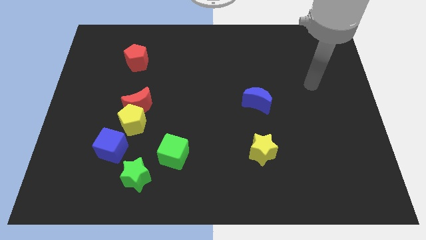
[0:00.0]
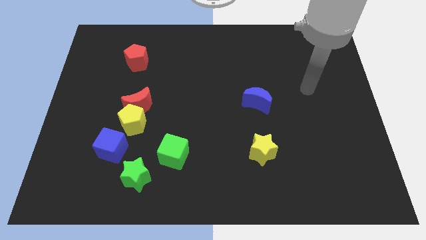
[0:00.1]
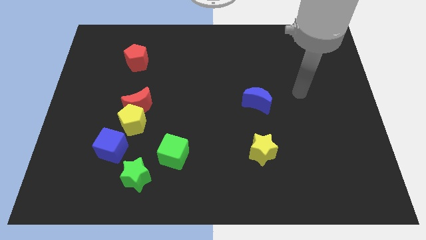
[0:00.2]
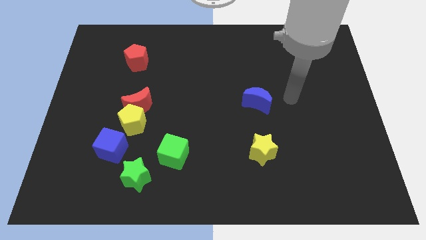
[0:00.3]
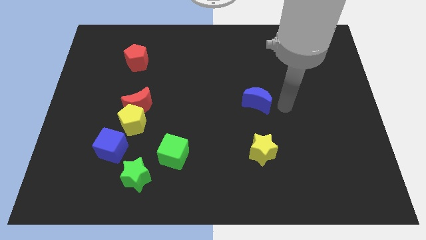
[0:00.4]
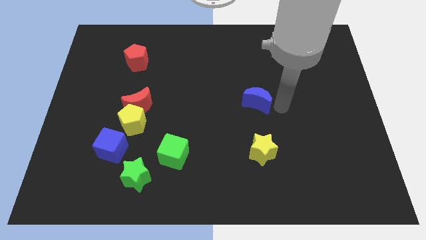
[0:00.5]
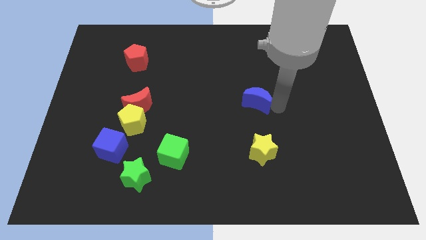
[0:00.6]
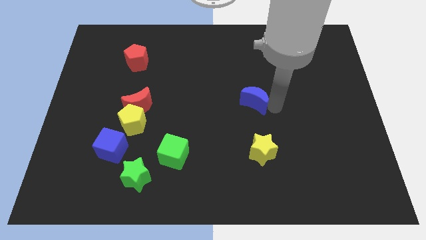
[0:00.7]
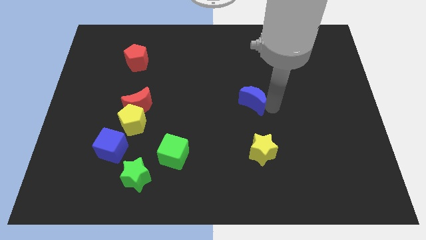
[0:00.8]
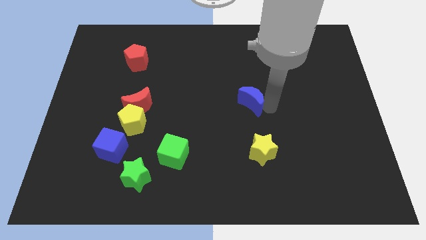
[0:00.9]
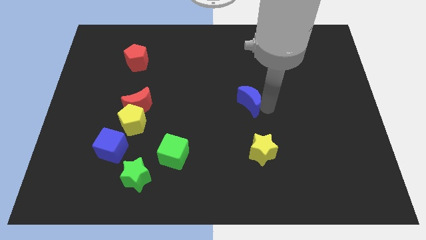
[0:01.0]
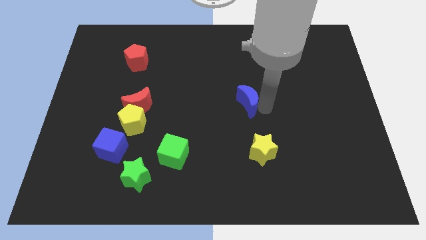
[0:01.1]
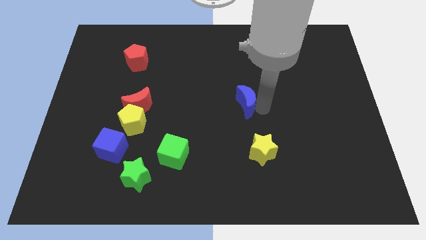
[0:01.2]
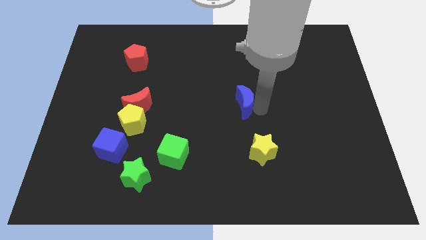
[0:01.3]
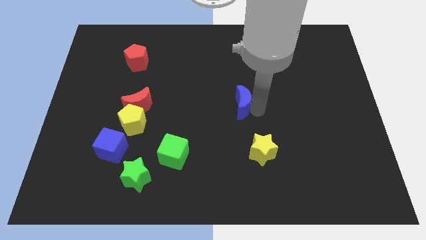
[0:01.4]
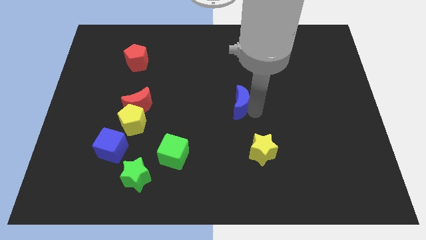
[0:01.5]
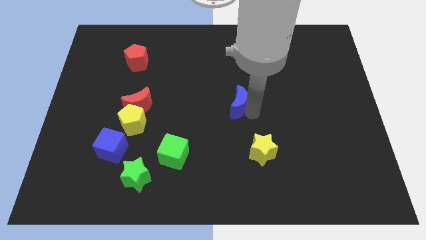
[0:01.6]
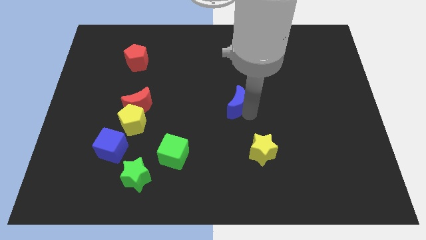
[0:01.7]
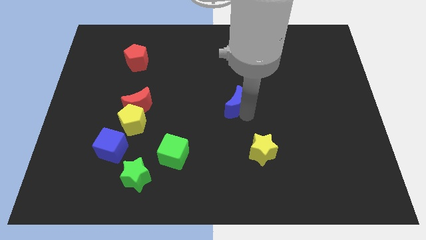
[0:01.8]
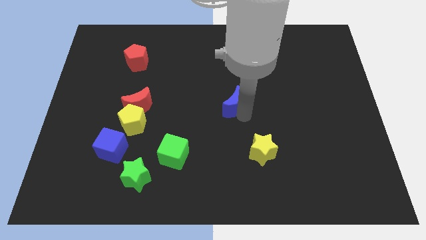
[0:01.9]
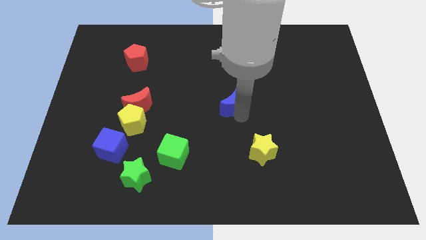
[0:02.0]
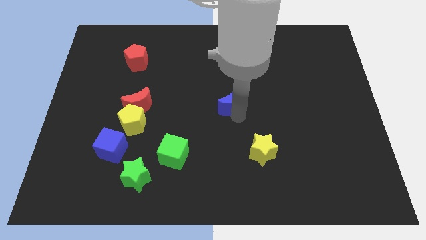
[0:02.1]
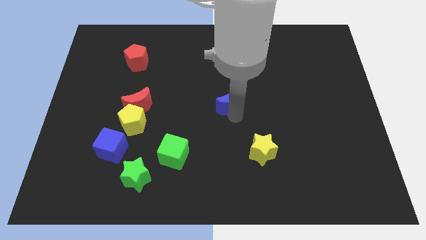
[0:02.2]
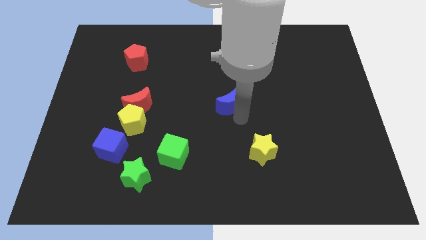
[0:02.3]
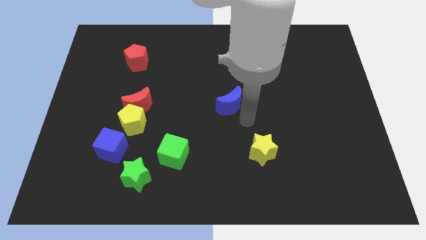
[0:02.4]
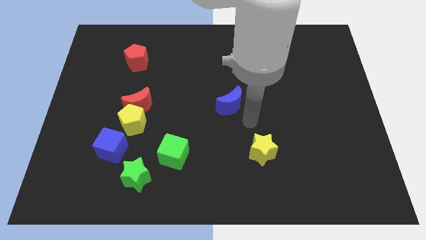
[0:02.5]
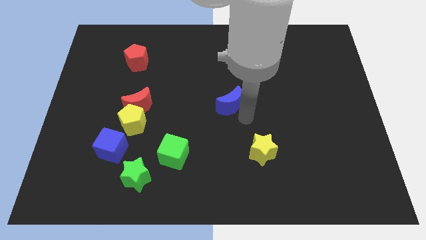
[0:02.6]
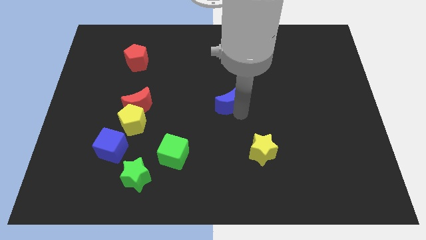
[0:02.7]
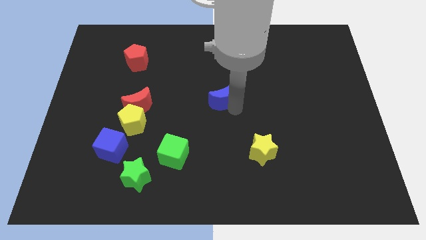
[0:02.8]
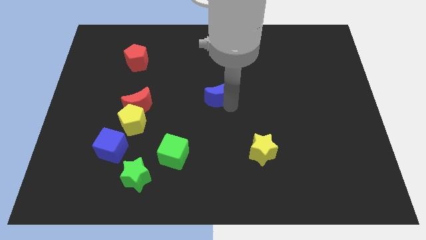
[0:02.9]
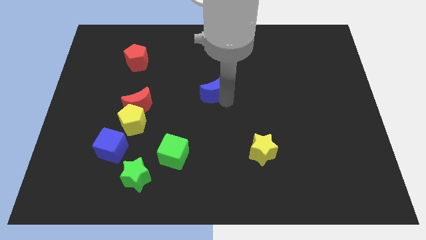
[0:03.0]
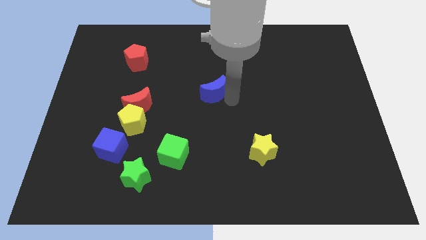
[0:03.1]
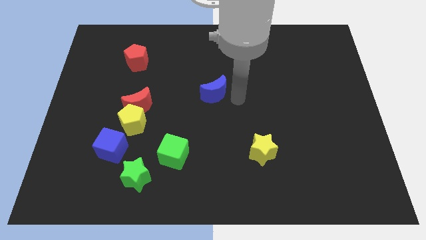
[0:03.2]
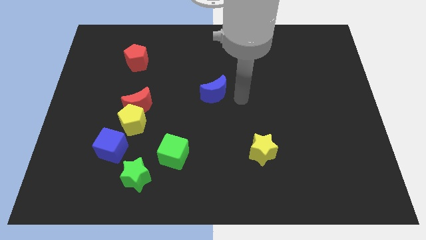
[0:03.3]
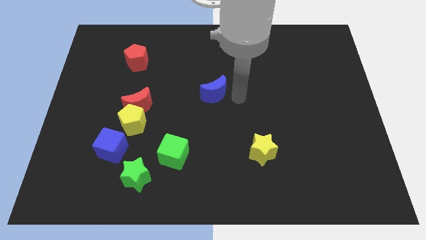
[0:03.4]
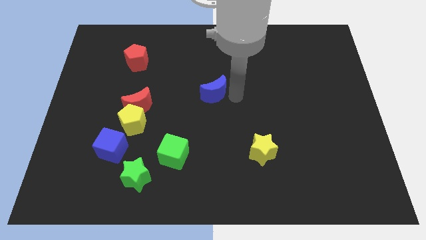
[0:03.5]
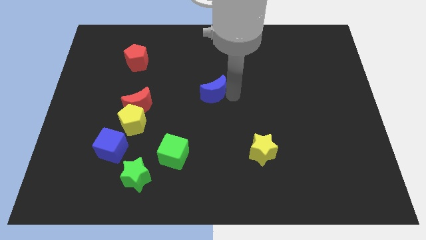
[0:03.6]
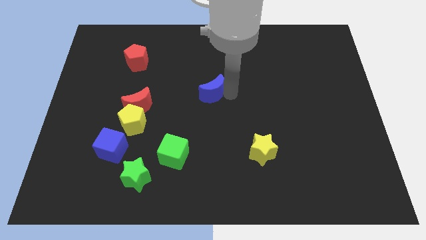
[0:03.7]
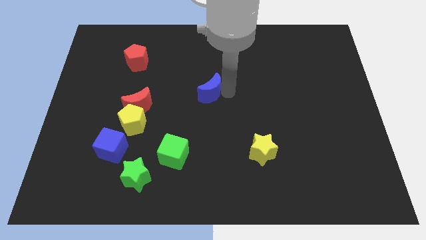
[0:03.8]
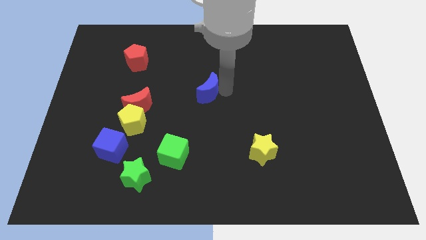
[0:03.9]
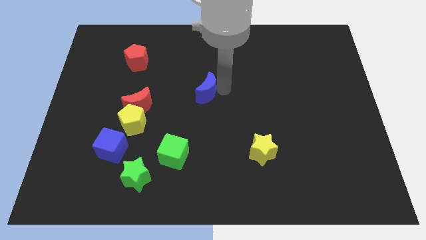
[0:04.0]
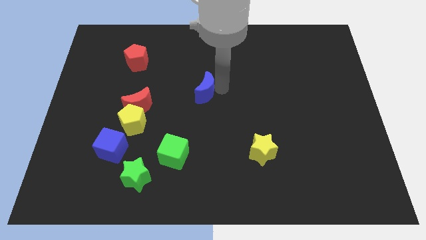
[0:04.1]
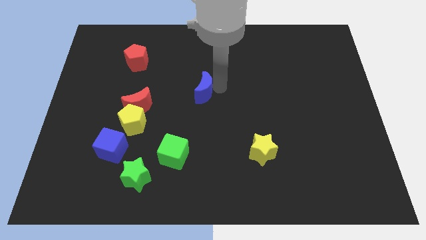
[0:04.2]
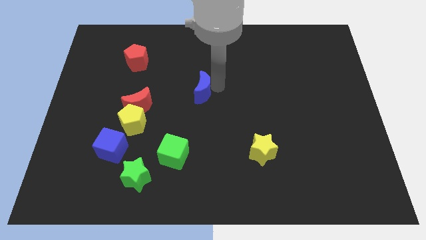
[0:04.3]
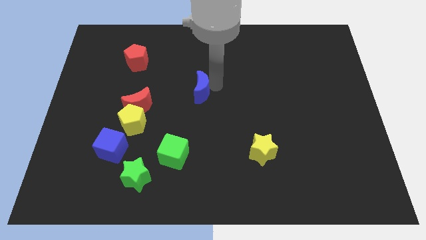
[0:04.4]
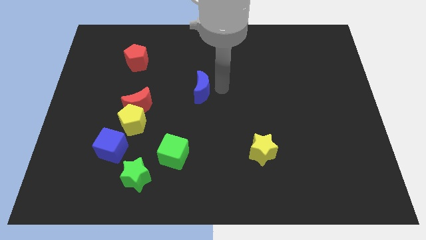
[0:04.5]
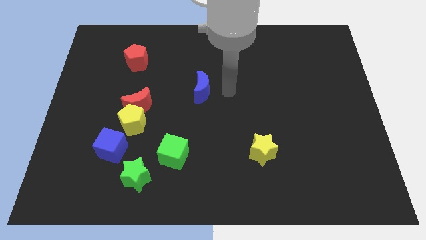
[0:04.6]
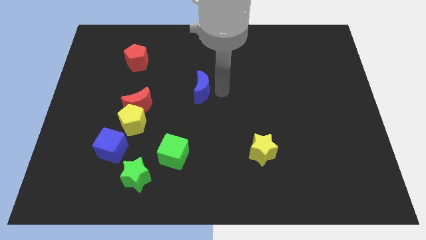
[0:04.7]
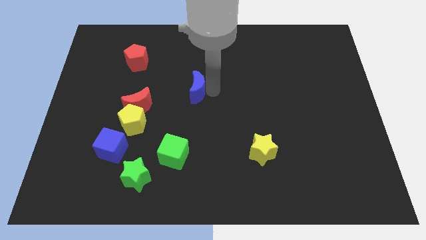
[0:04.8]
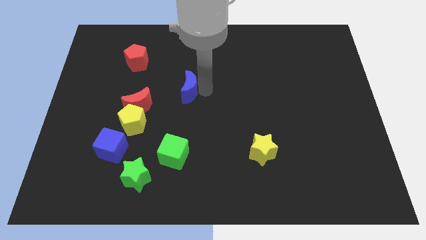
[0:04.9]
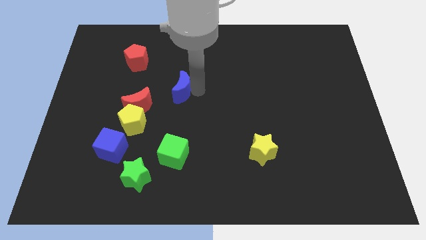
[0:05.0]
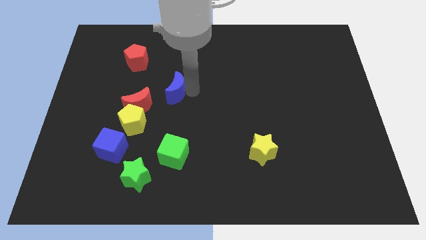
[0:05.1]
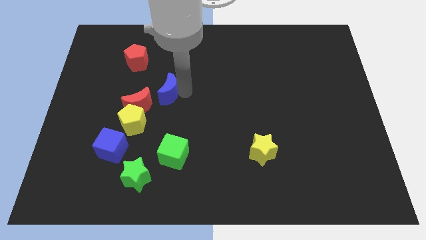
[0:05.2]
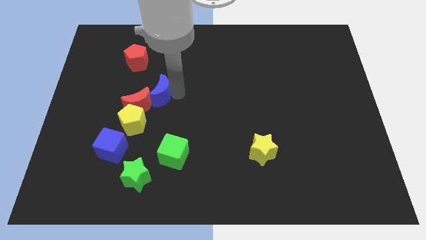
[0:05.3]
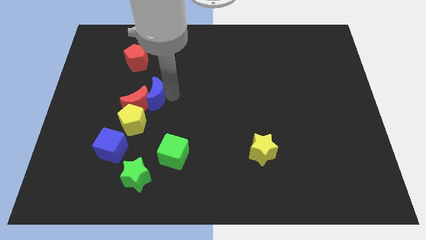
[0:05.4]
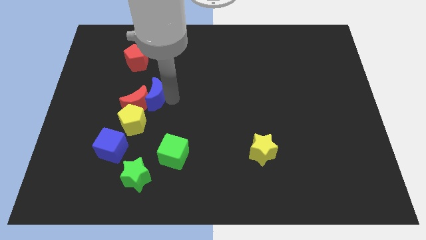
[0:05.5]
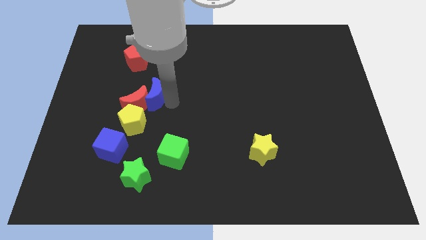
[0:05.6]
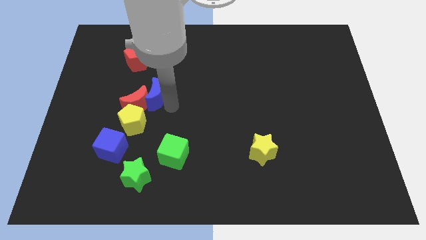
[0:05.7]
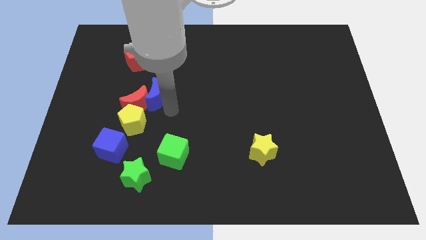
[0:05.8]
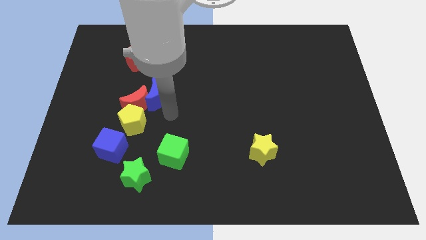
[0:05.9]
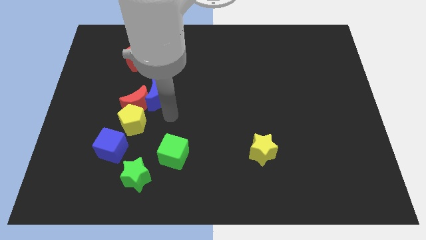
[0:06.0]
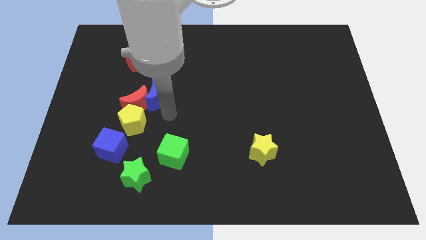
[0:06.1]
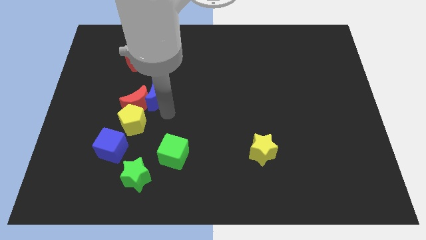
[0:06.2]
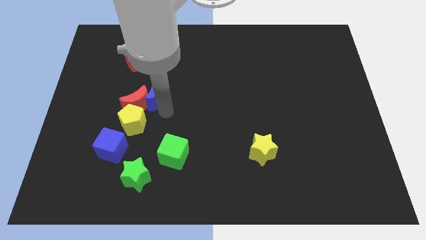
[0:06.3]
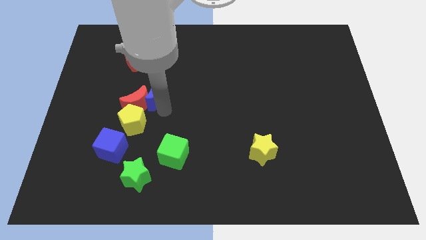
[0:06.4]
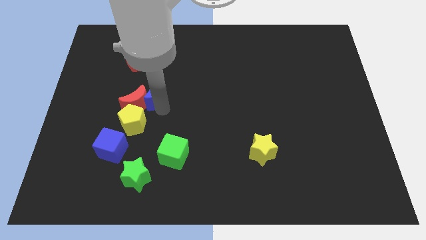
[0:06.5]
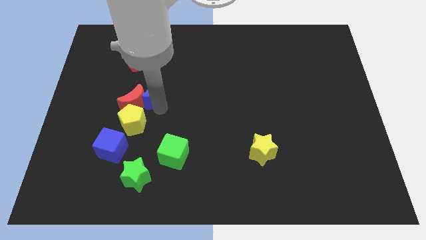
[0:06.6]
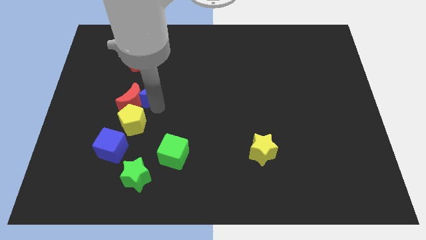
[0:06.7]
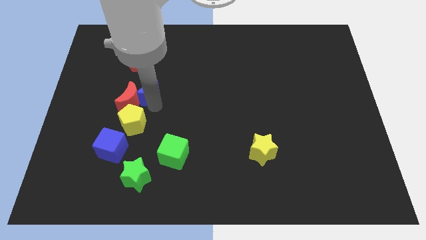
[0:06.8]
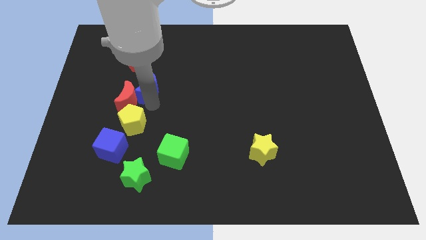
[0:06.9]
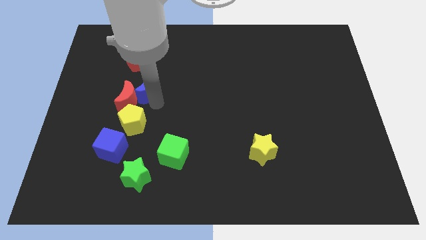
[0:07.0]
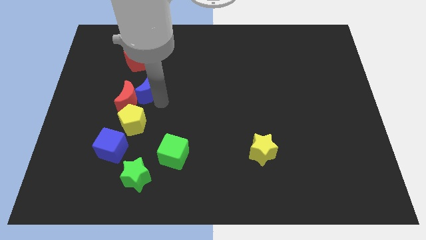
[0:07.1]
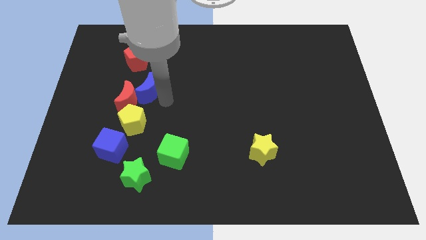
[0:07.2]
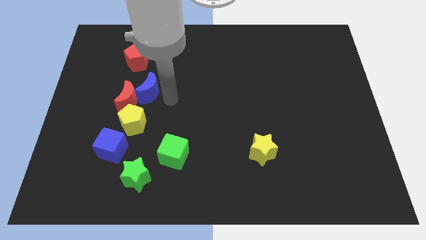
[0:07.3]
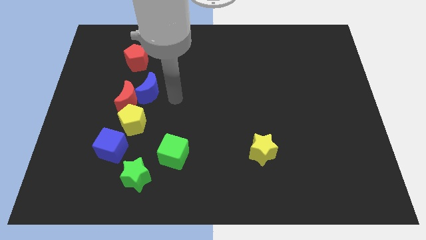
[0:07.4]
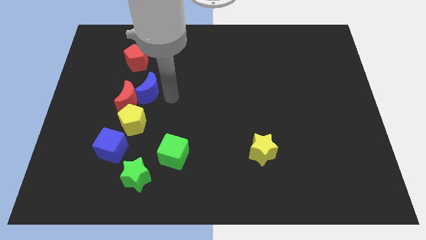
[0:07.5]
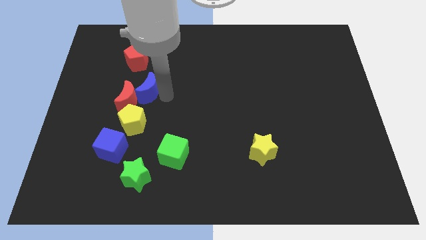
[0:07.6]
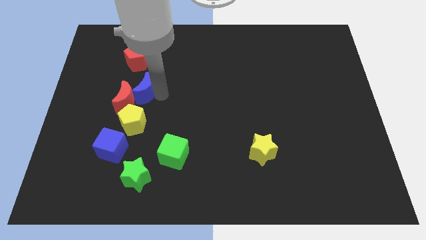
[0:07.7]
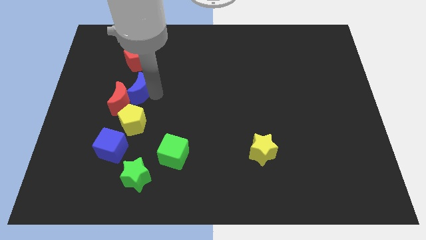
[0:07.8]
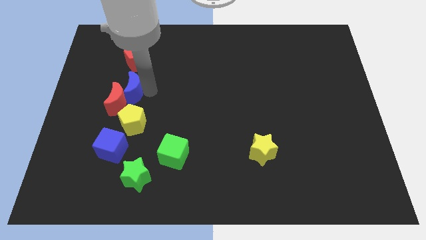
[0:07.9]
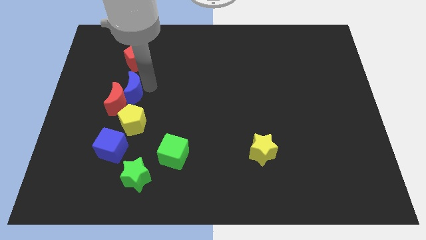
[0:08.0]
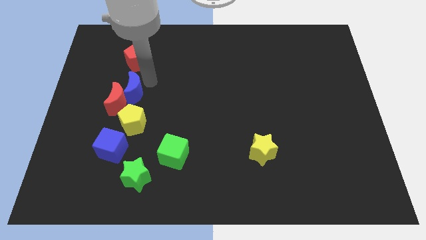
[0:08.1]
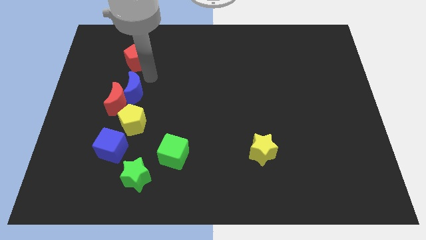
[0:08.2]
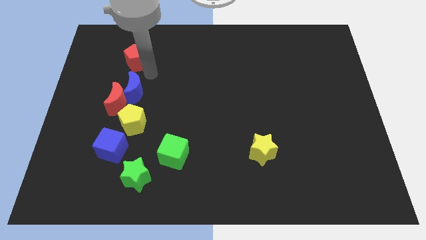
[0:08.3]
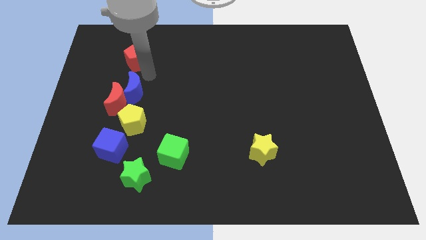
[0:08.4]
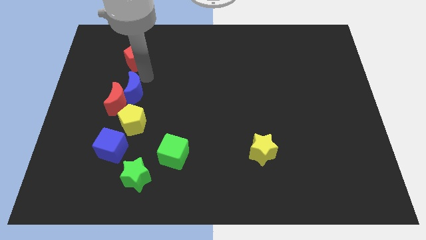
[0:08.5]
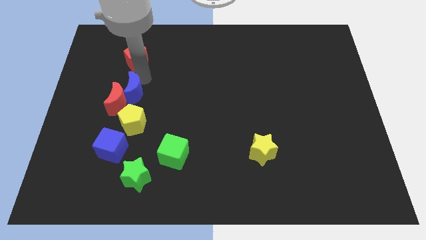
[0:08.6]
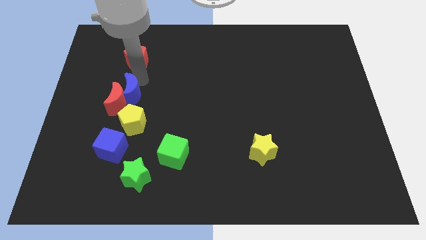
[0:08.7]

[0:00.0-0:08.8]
slide the blue moon to the top side of the blue cube
